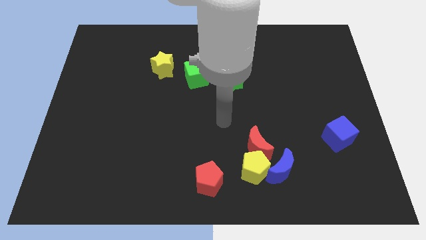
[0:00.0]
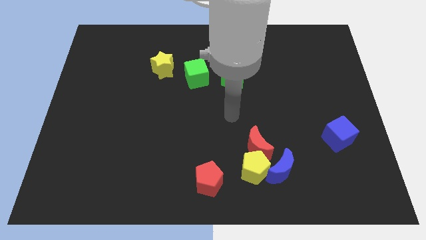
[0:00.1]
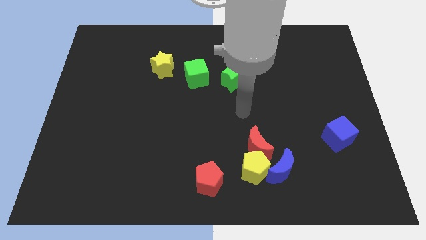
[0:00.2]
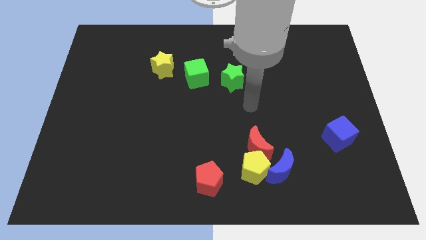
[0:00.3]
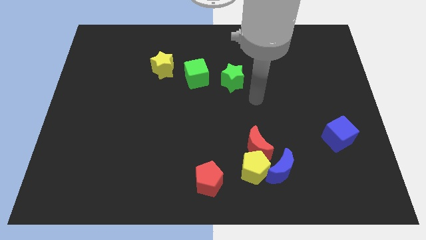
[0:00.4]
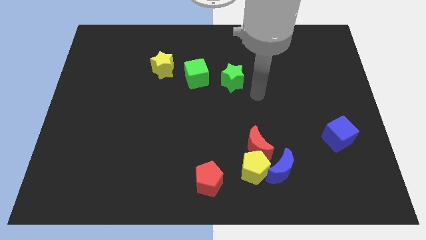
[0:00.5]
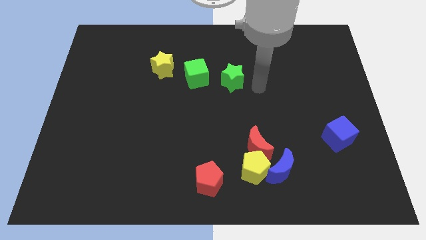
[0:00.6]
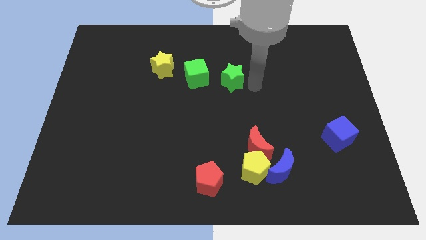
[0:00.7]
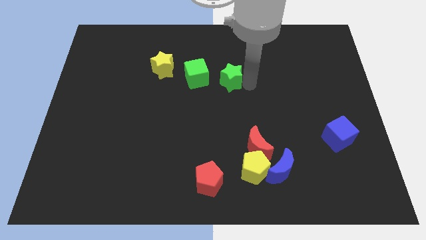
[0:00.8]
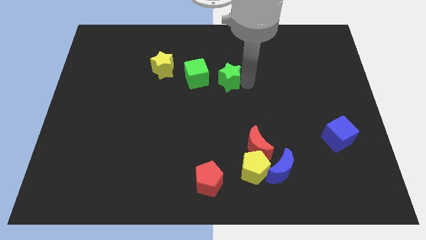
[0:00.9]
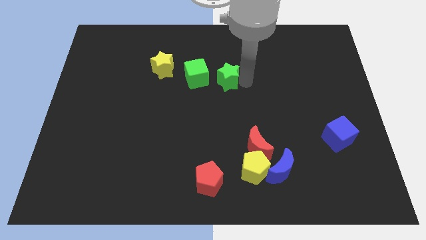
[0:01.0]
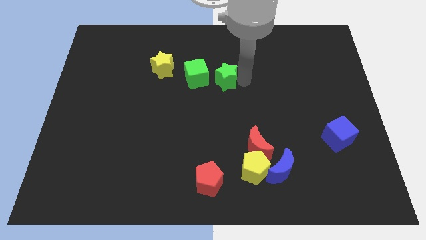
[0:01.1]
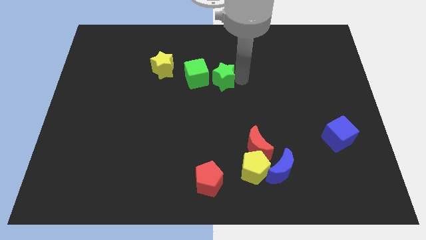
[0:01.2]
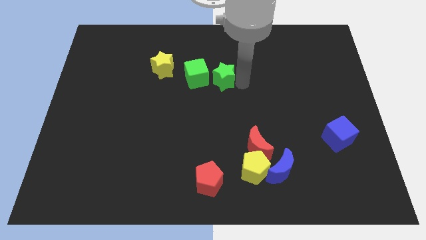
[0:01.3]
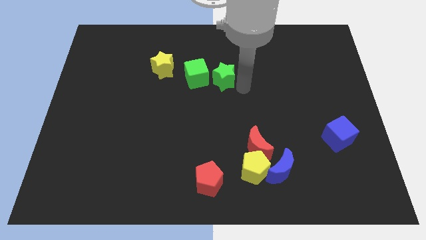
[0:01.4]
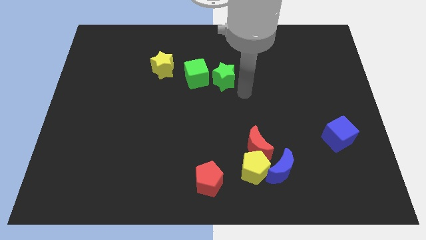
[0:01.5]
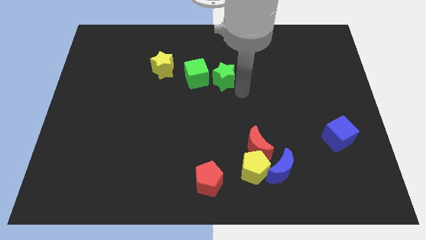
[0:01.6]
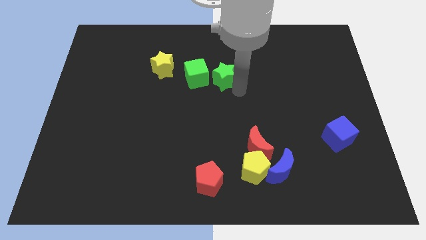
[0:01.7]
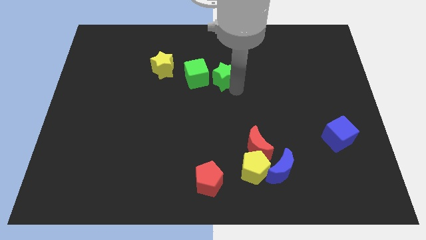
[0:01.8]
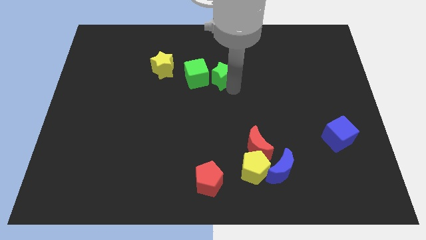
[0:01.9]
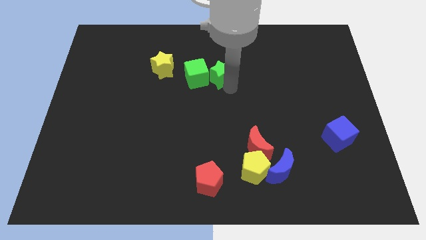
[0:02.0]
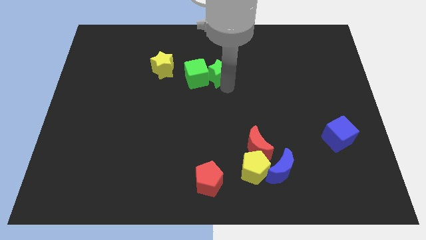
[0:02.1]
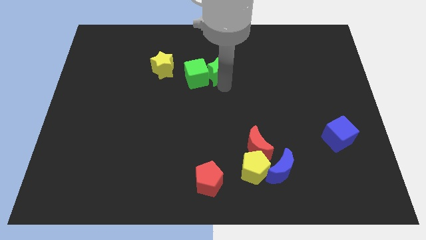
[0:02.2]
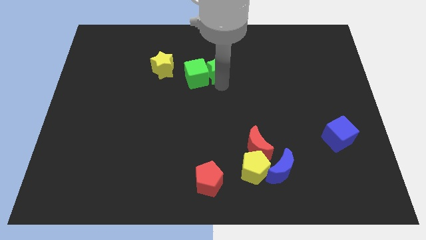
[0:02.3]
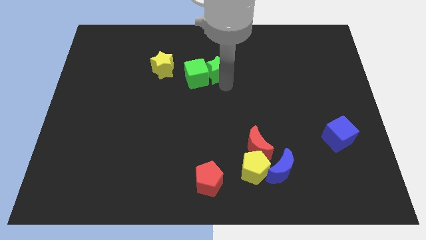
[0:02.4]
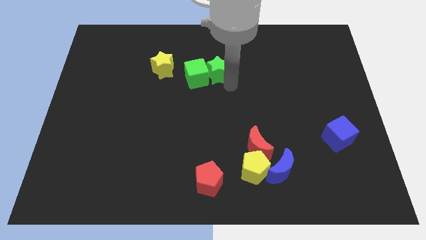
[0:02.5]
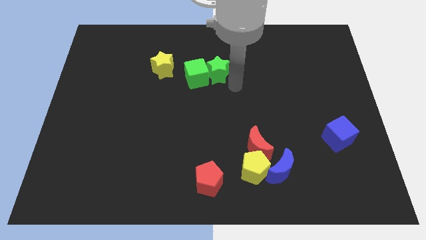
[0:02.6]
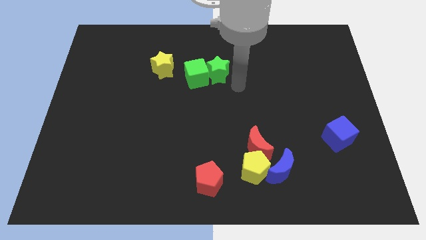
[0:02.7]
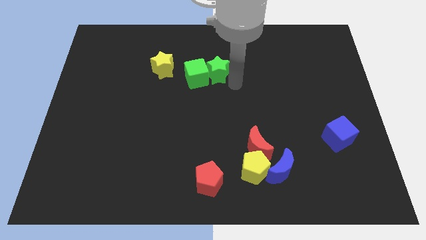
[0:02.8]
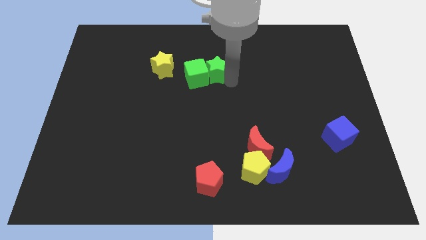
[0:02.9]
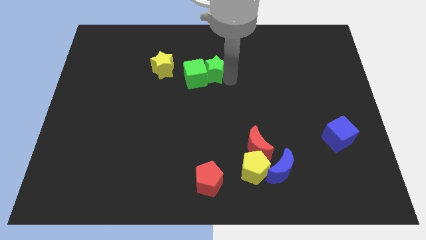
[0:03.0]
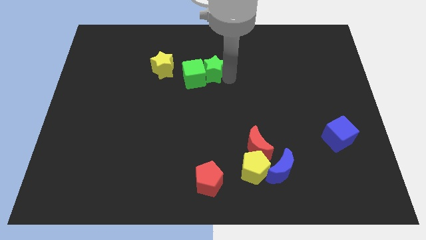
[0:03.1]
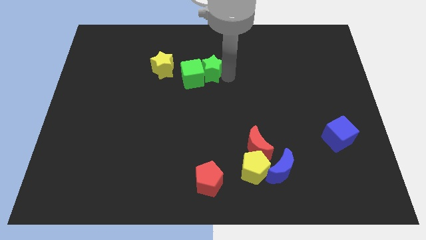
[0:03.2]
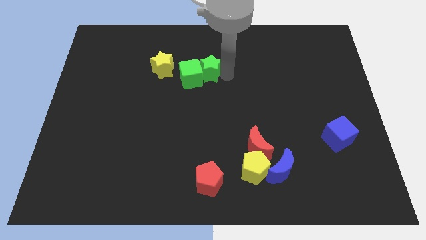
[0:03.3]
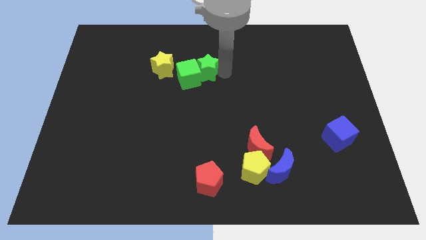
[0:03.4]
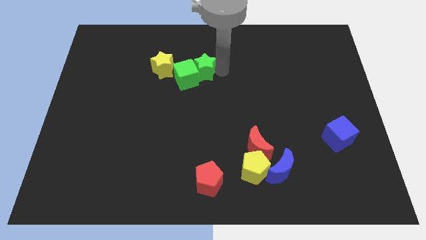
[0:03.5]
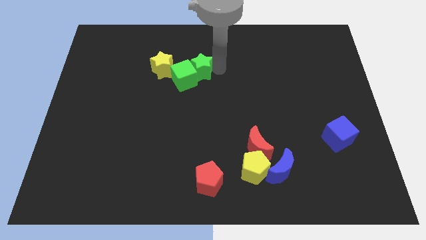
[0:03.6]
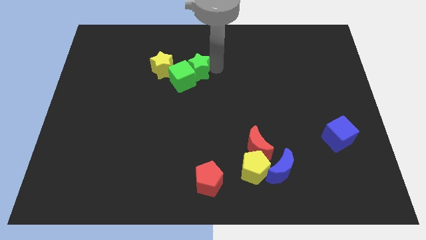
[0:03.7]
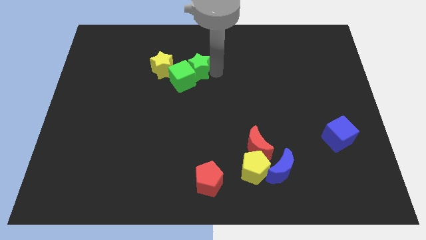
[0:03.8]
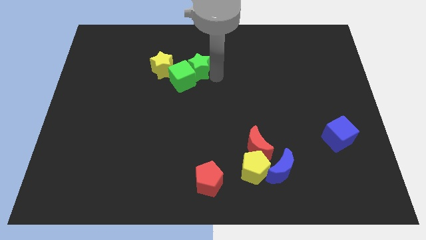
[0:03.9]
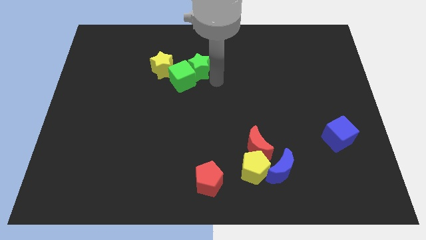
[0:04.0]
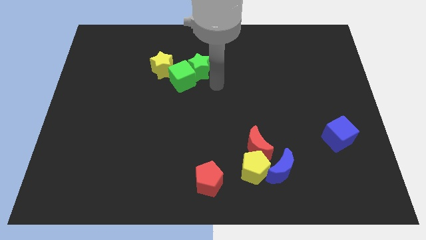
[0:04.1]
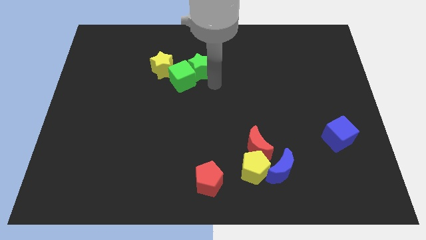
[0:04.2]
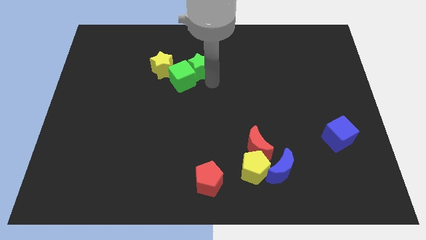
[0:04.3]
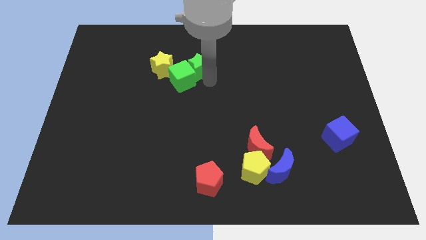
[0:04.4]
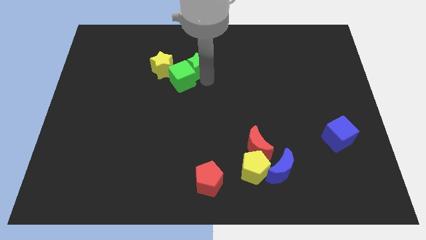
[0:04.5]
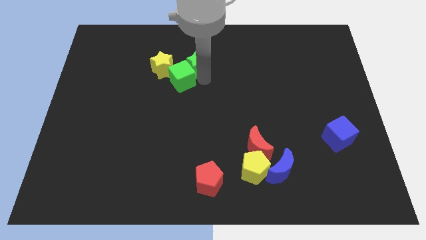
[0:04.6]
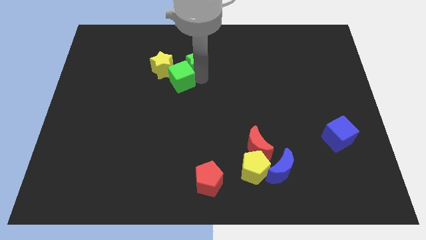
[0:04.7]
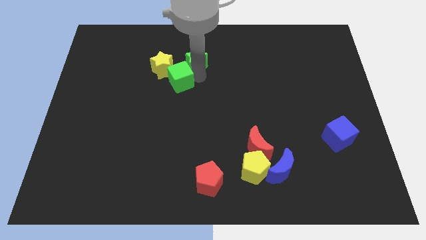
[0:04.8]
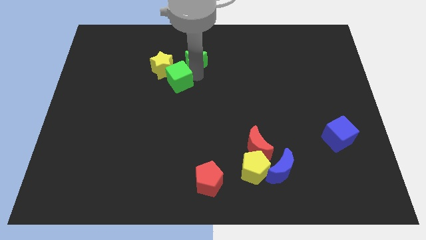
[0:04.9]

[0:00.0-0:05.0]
push the green star diagonally up and to the right of the yellow star
